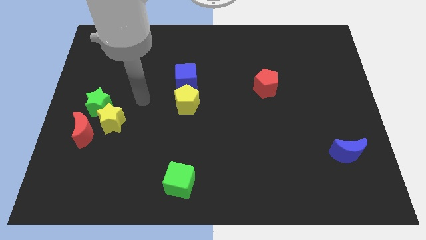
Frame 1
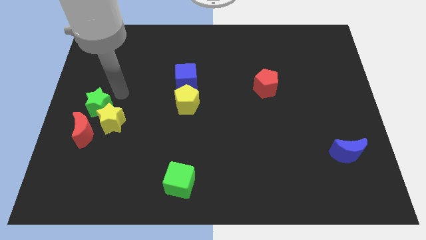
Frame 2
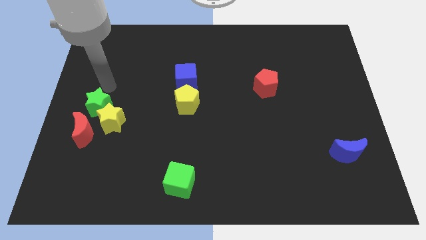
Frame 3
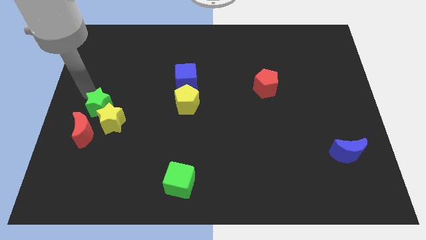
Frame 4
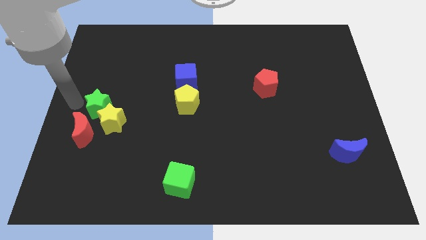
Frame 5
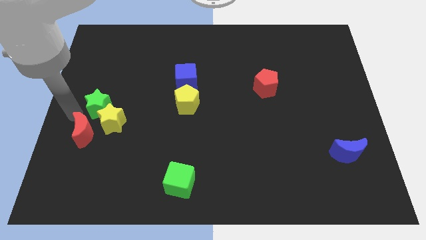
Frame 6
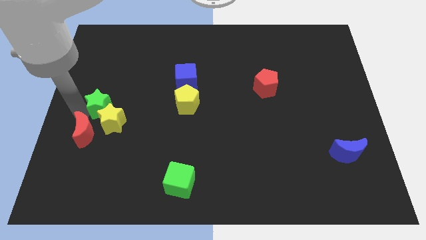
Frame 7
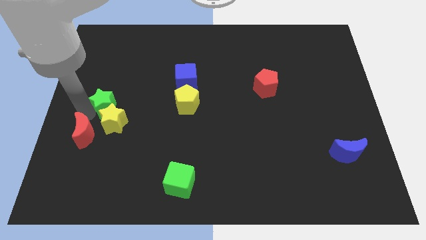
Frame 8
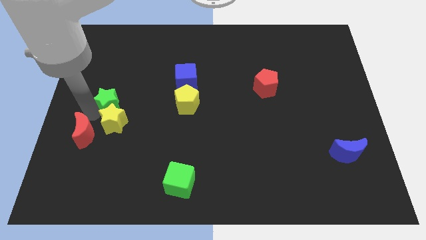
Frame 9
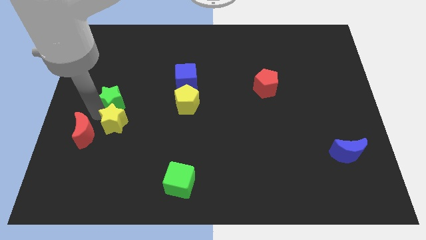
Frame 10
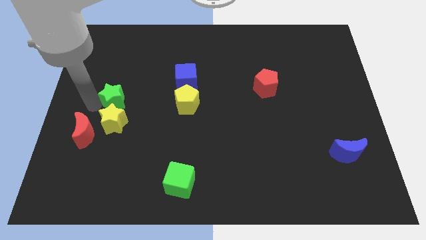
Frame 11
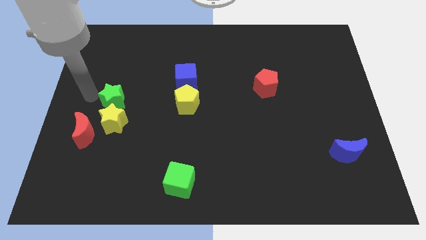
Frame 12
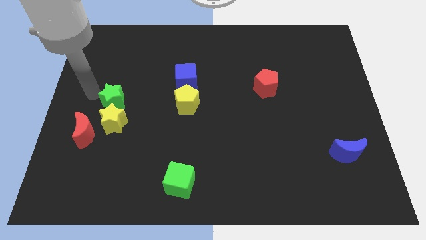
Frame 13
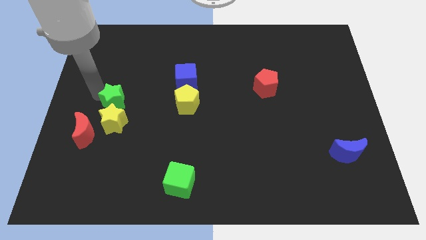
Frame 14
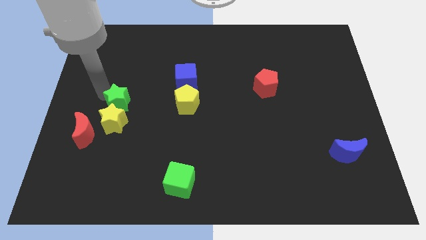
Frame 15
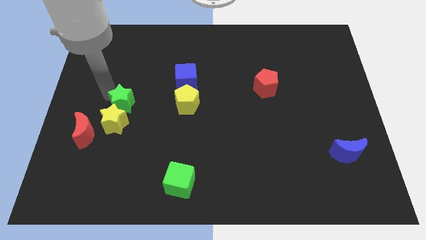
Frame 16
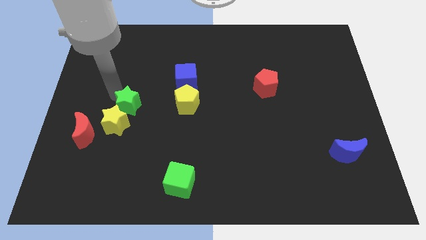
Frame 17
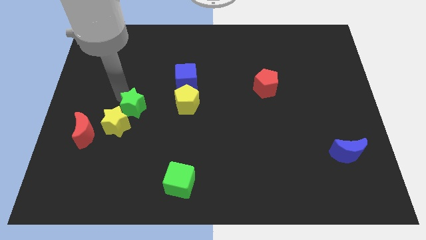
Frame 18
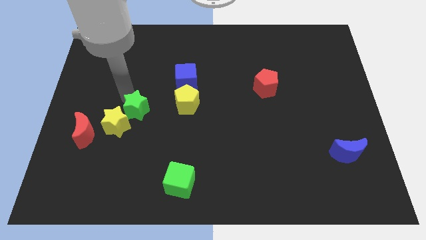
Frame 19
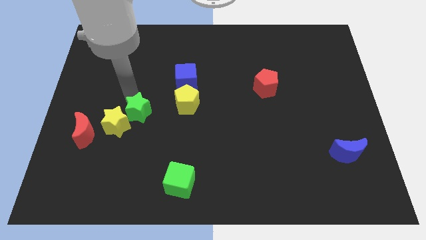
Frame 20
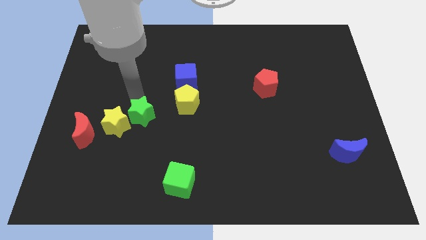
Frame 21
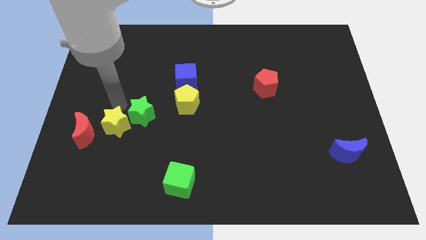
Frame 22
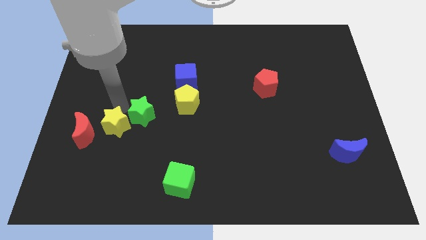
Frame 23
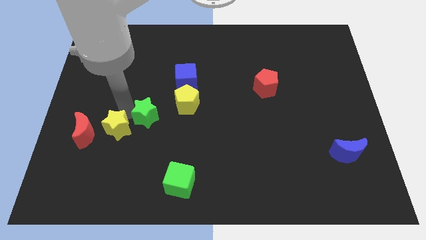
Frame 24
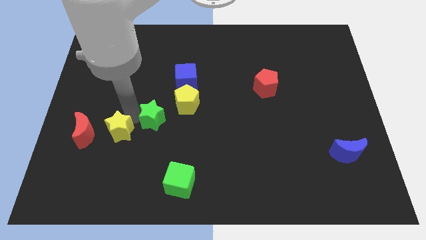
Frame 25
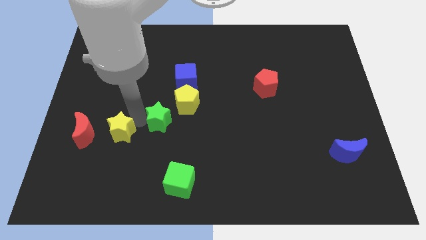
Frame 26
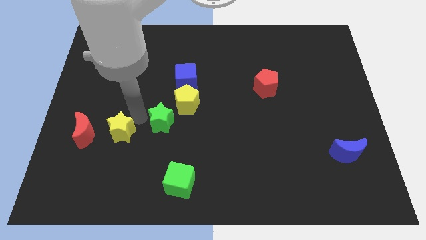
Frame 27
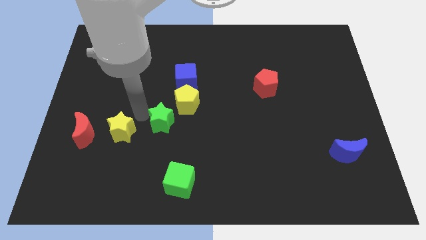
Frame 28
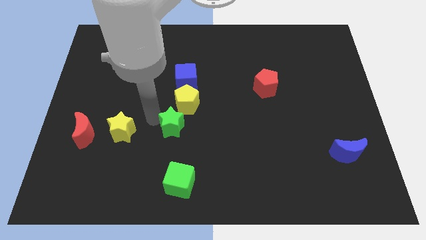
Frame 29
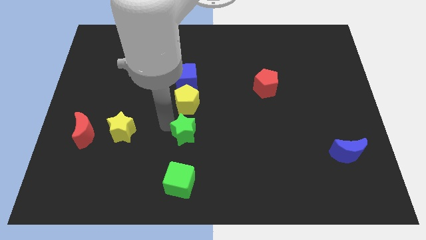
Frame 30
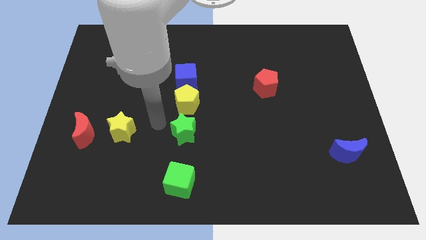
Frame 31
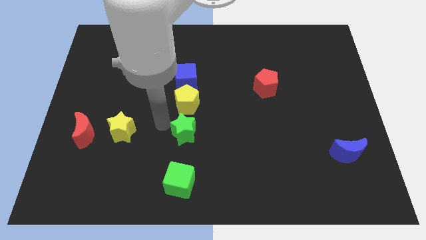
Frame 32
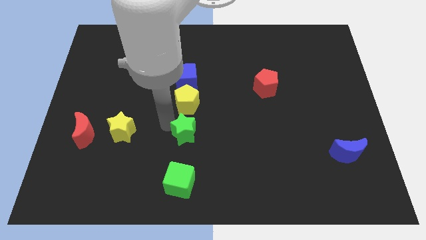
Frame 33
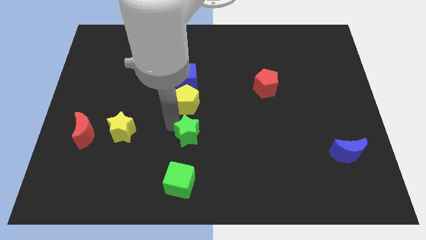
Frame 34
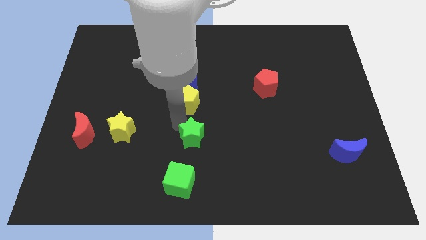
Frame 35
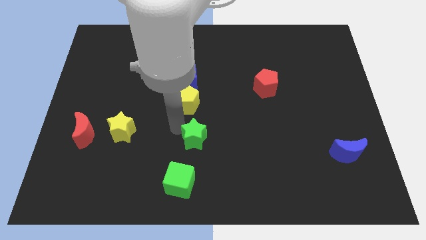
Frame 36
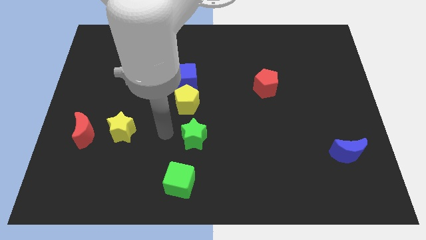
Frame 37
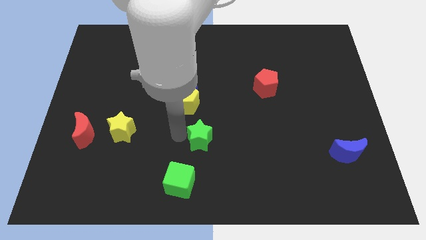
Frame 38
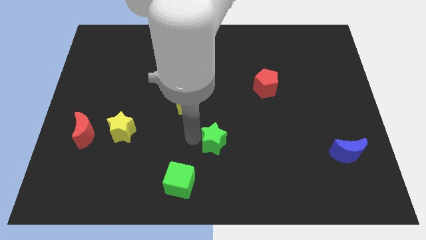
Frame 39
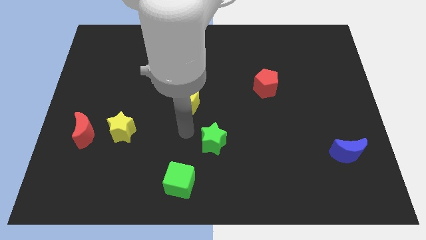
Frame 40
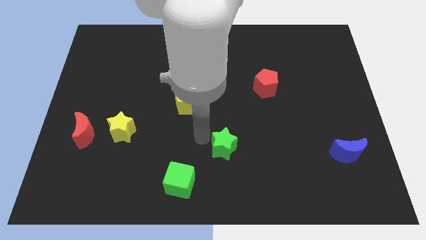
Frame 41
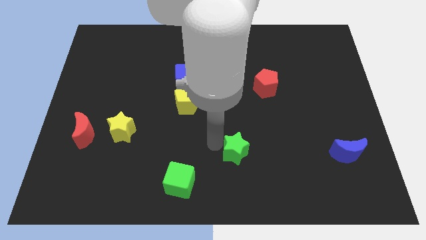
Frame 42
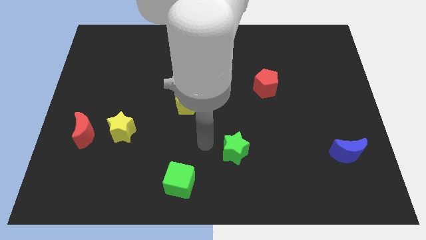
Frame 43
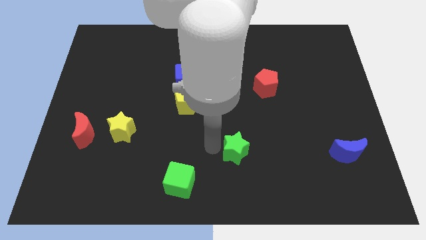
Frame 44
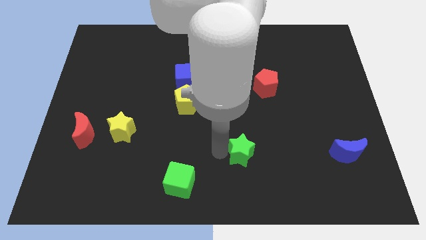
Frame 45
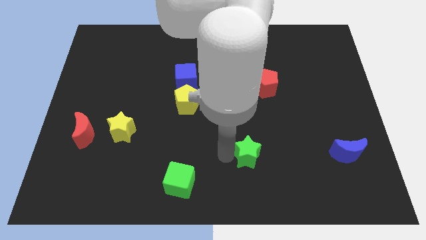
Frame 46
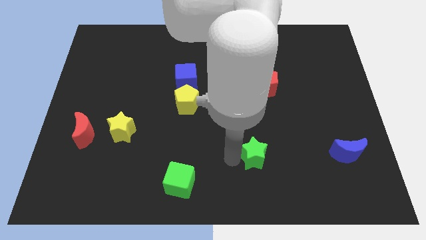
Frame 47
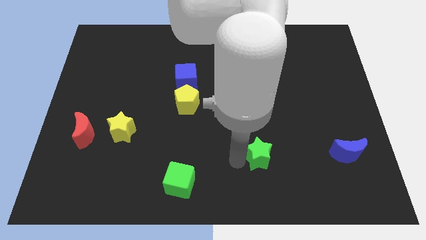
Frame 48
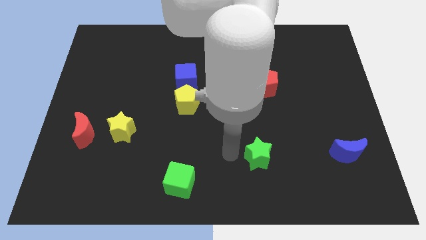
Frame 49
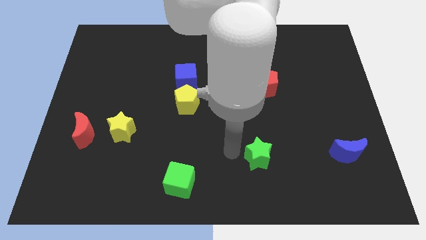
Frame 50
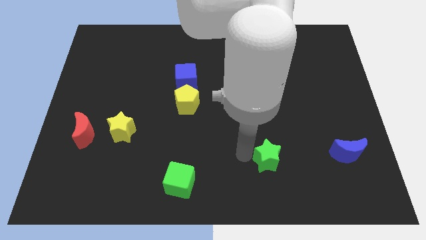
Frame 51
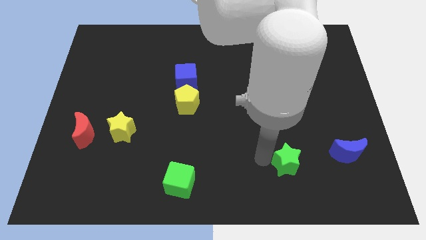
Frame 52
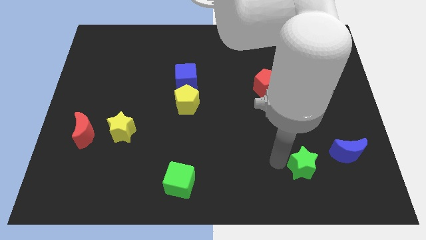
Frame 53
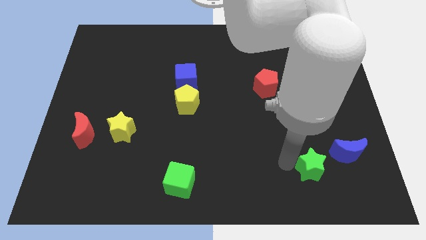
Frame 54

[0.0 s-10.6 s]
move the green star diagonally down and to the left of the blue moon

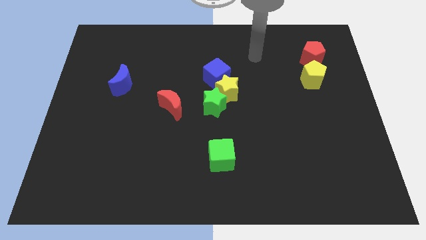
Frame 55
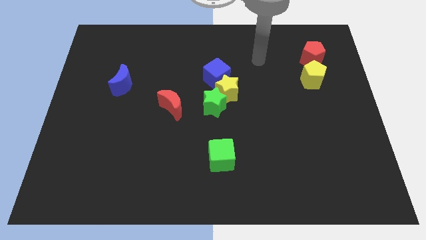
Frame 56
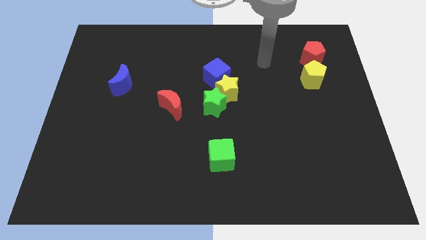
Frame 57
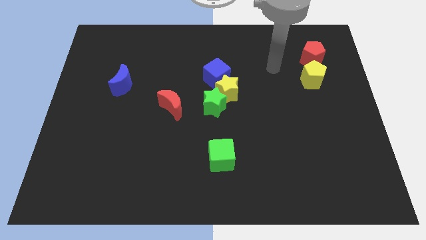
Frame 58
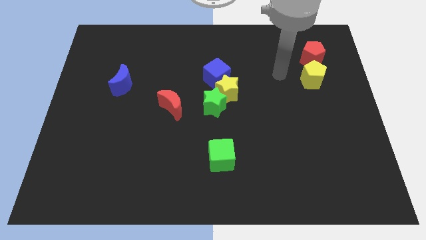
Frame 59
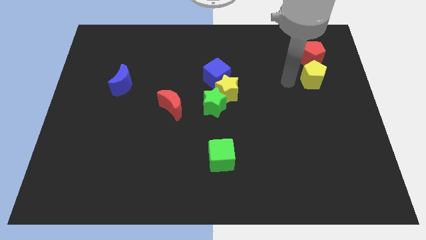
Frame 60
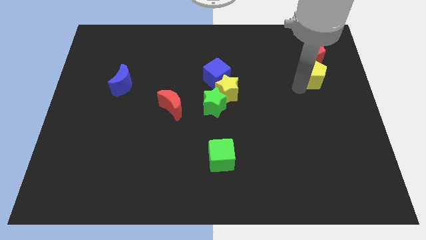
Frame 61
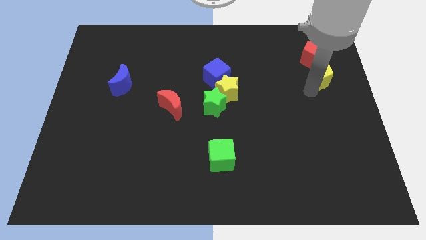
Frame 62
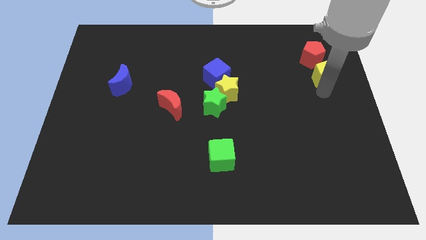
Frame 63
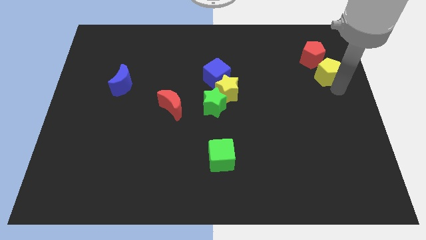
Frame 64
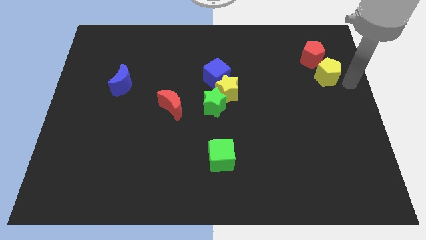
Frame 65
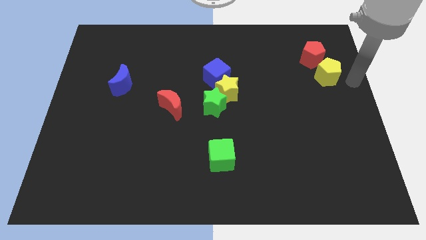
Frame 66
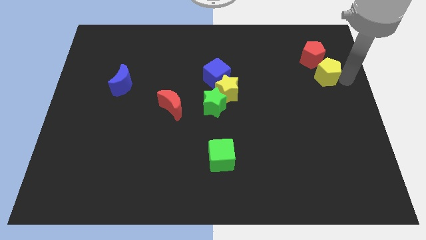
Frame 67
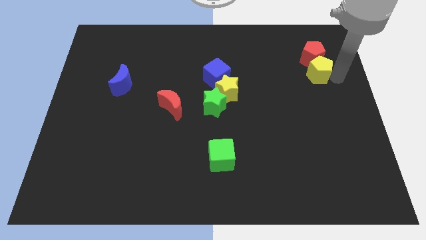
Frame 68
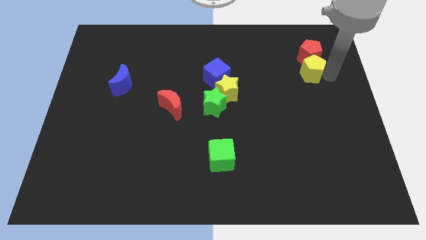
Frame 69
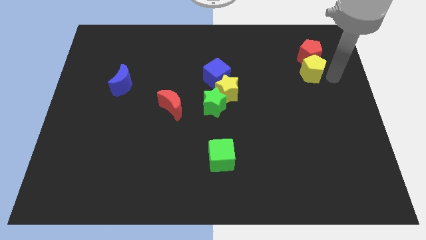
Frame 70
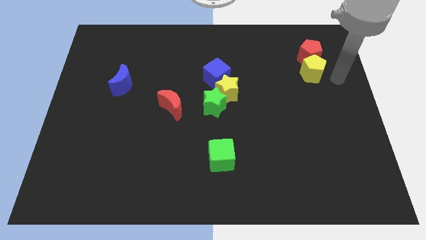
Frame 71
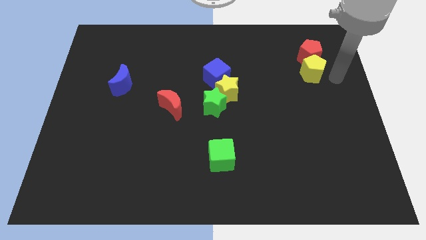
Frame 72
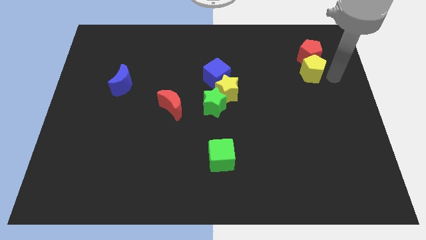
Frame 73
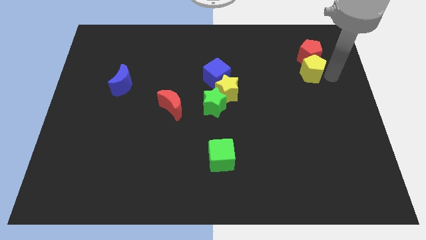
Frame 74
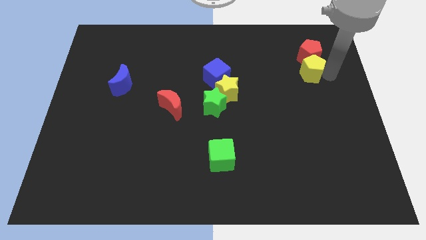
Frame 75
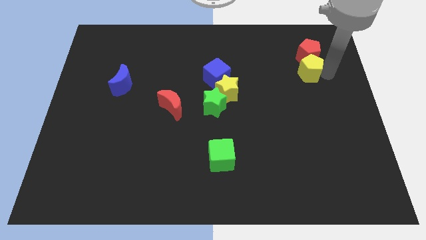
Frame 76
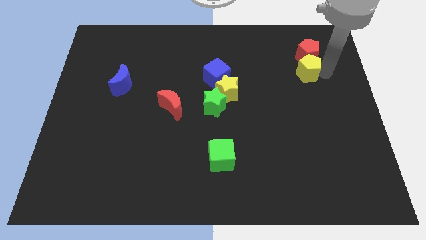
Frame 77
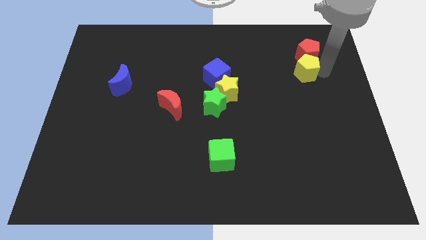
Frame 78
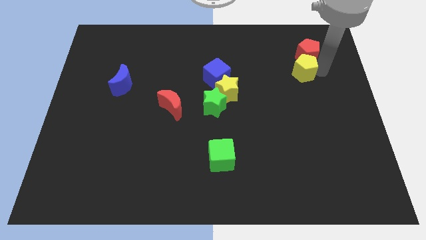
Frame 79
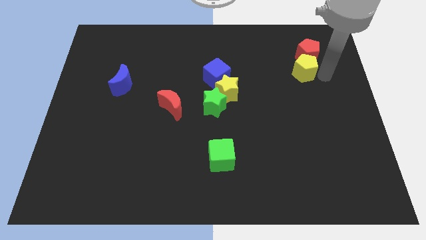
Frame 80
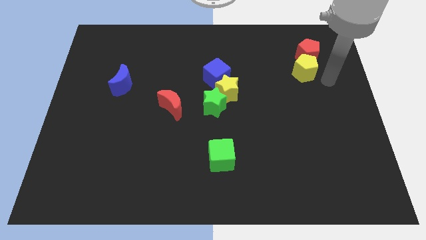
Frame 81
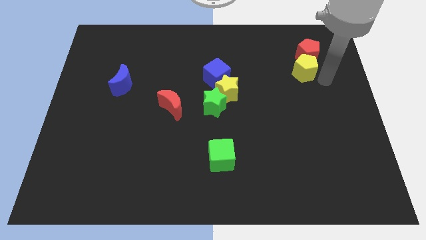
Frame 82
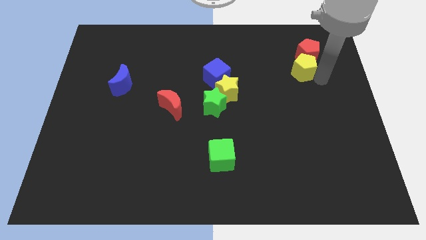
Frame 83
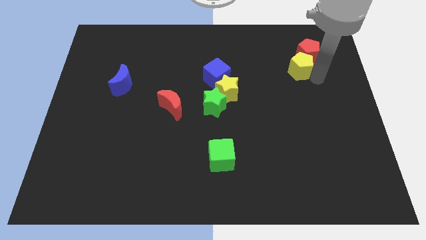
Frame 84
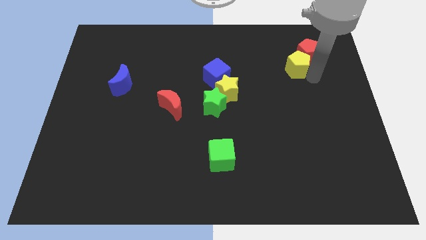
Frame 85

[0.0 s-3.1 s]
put the yellow pentagon just left of the red pentagon
